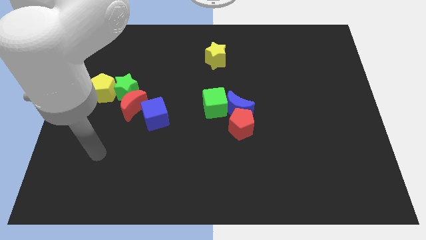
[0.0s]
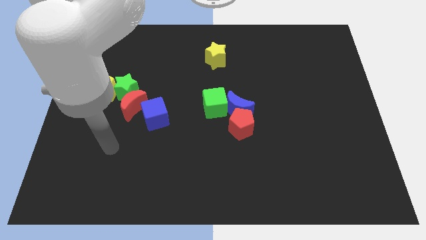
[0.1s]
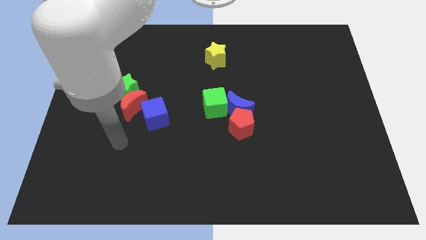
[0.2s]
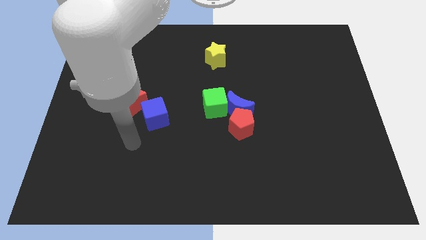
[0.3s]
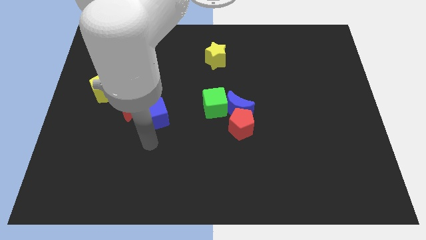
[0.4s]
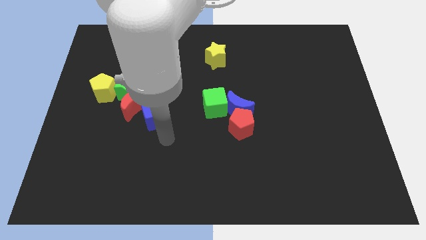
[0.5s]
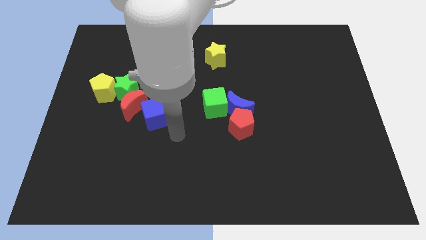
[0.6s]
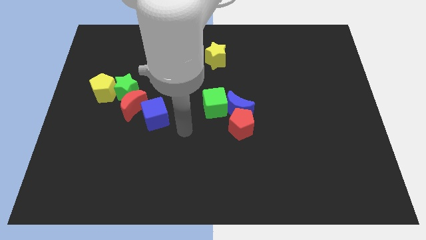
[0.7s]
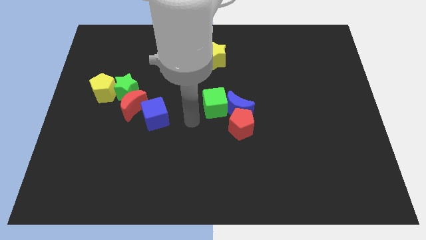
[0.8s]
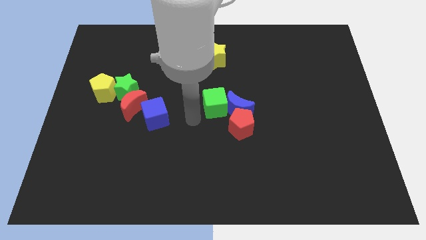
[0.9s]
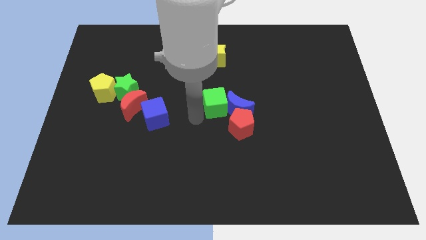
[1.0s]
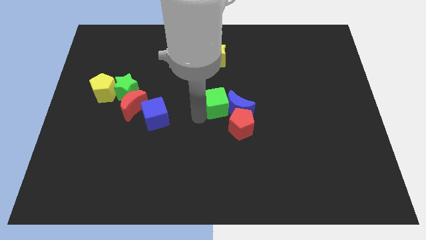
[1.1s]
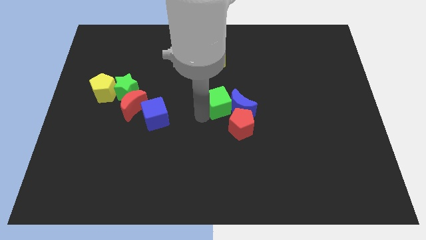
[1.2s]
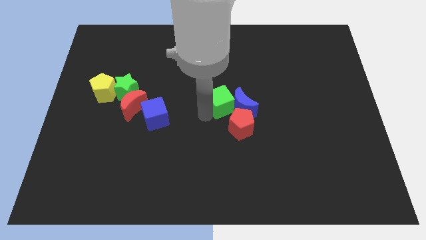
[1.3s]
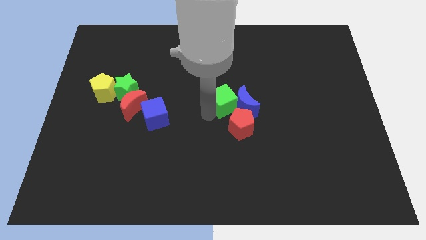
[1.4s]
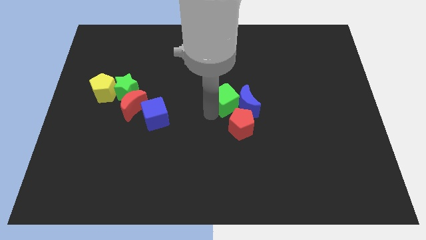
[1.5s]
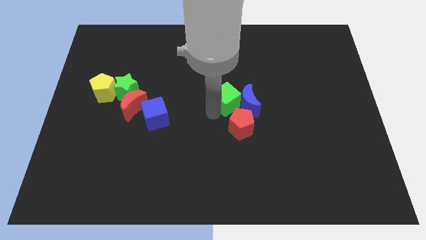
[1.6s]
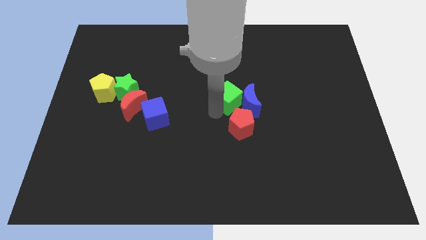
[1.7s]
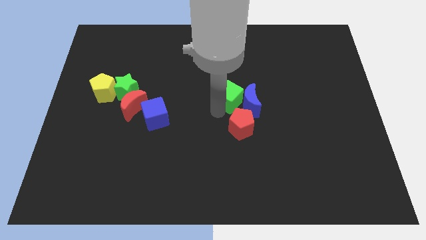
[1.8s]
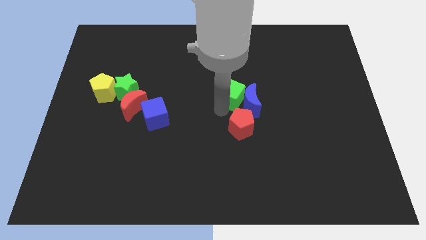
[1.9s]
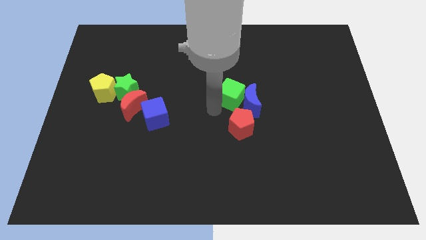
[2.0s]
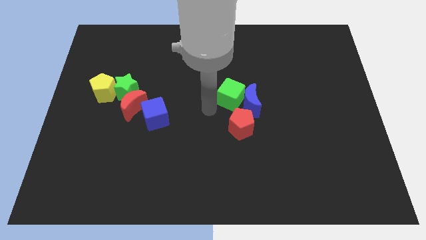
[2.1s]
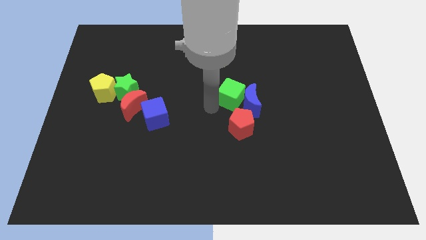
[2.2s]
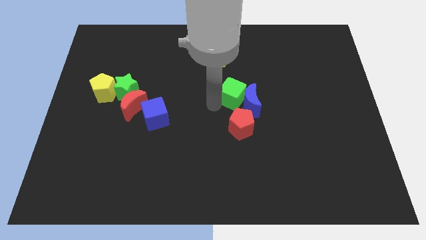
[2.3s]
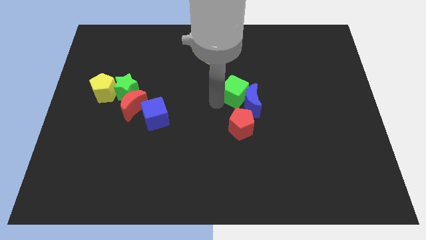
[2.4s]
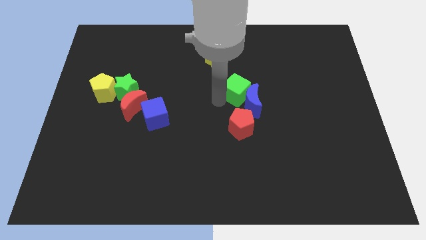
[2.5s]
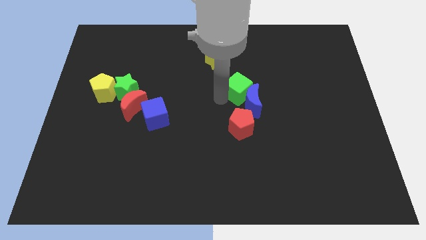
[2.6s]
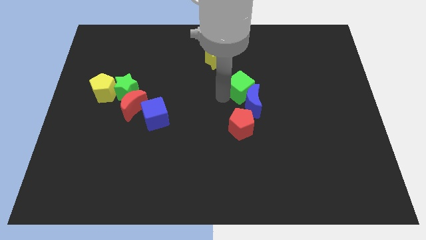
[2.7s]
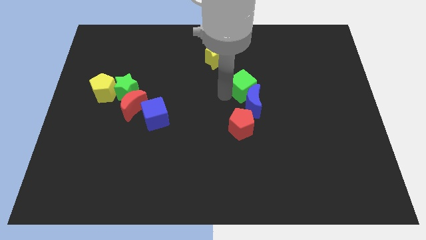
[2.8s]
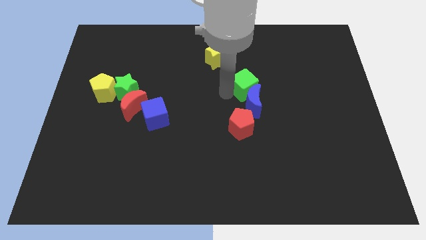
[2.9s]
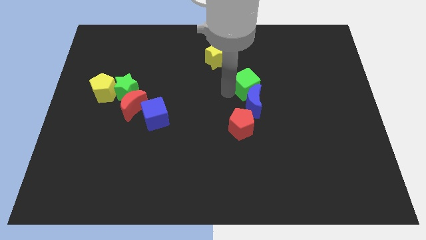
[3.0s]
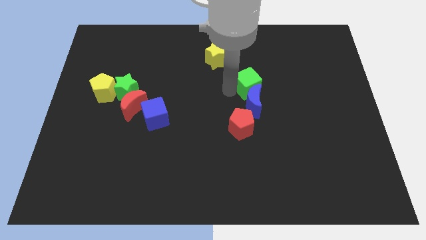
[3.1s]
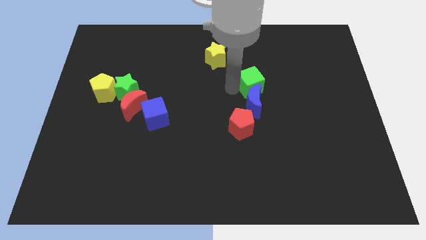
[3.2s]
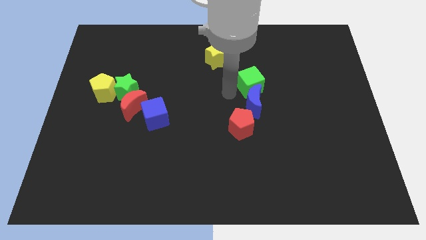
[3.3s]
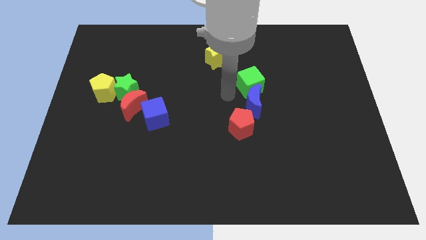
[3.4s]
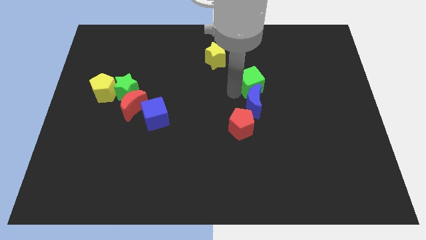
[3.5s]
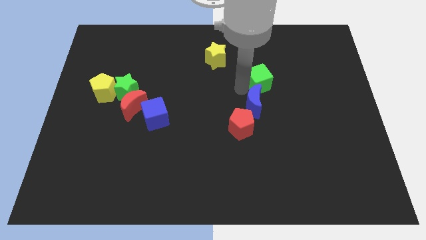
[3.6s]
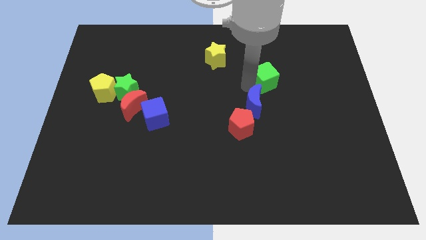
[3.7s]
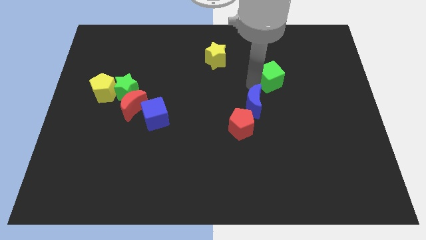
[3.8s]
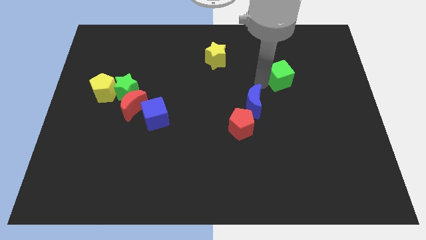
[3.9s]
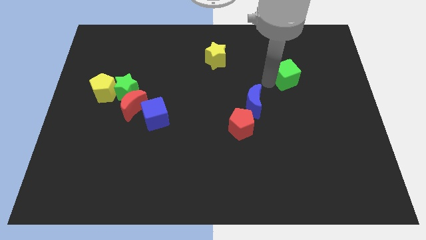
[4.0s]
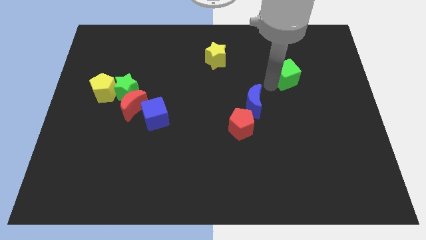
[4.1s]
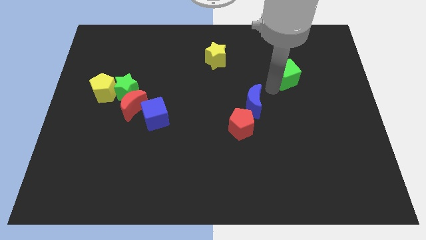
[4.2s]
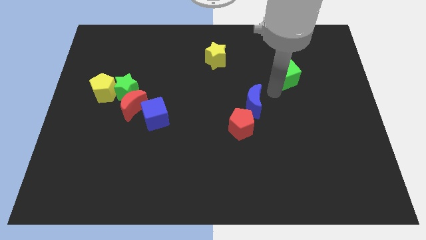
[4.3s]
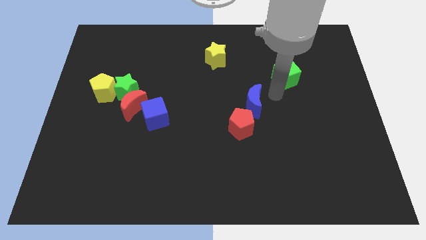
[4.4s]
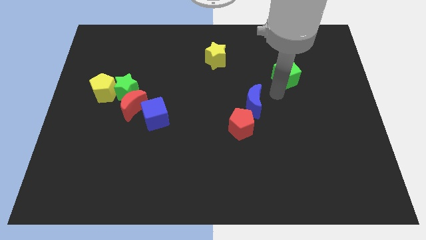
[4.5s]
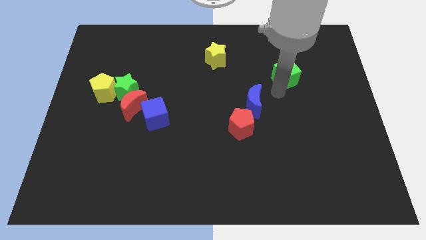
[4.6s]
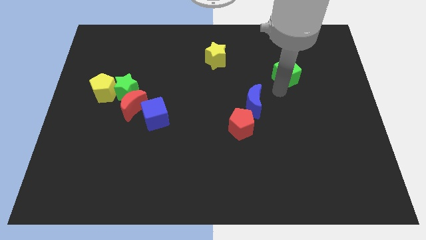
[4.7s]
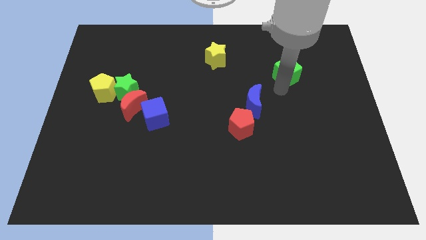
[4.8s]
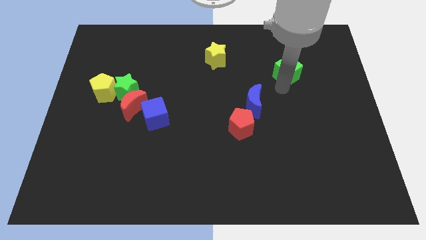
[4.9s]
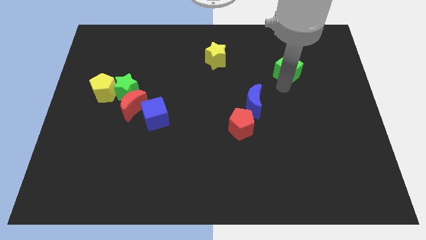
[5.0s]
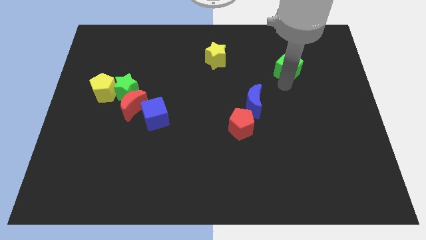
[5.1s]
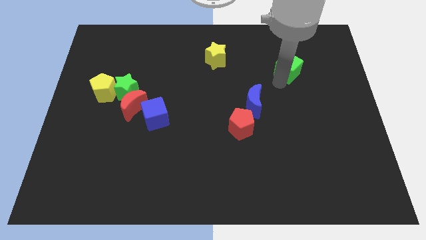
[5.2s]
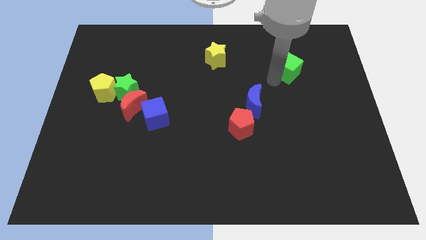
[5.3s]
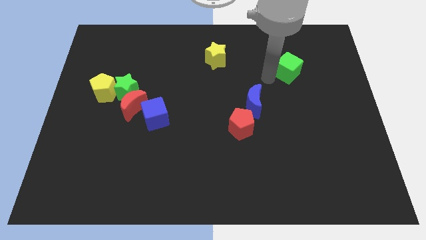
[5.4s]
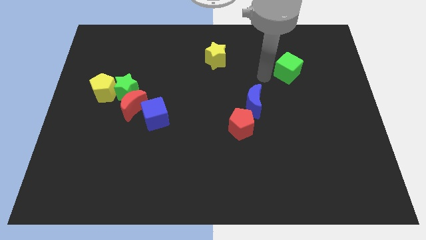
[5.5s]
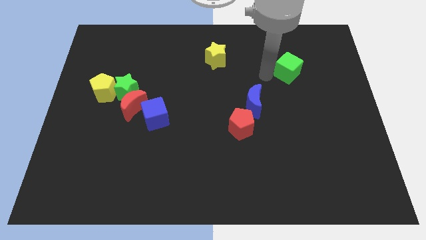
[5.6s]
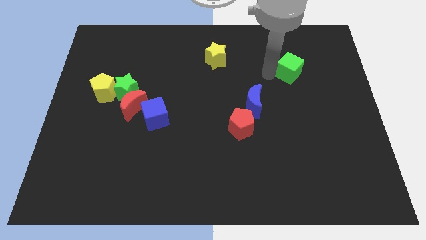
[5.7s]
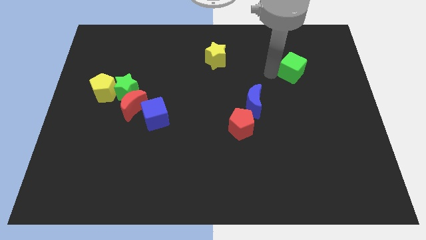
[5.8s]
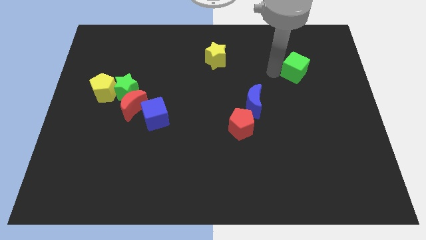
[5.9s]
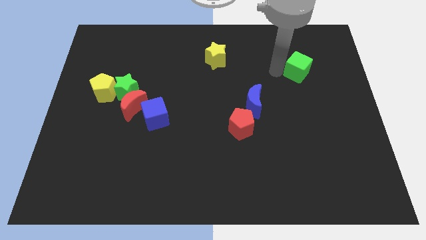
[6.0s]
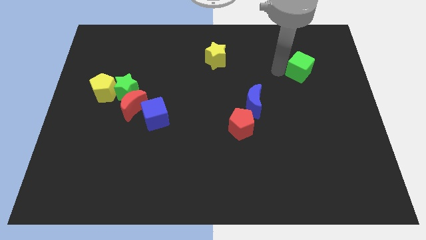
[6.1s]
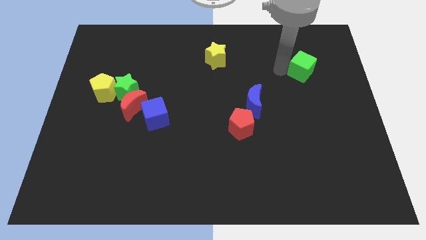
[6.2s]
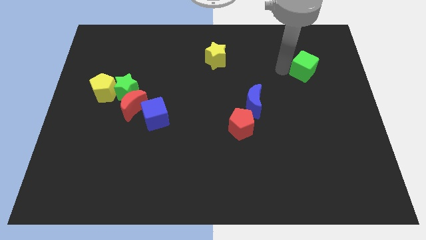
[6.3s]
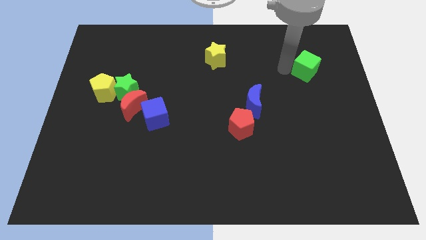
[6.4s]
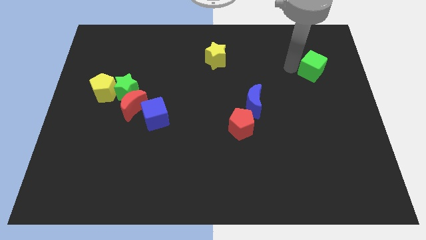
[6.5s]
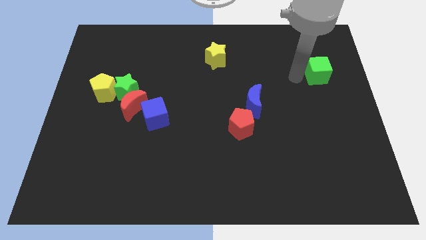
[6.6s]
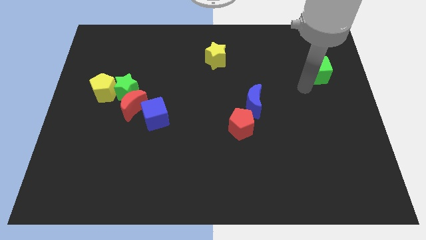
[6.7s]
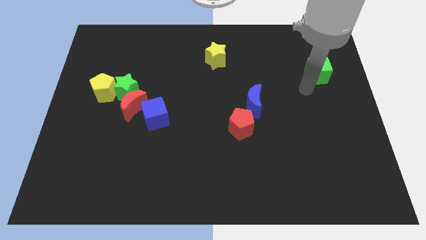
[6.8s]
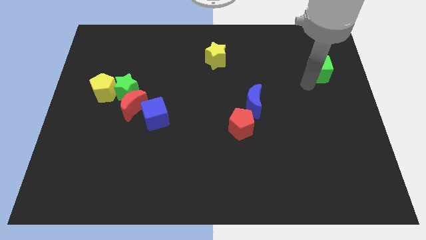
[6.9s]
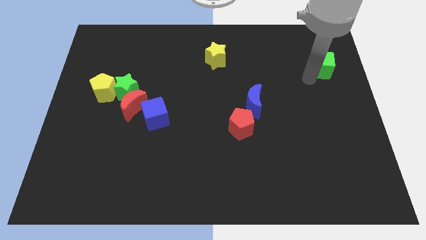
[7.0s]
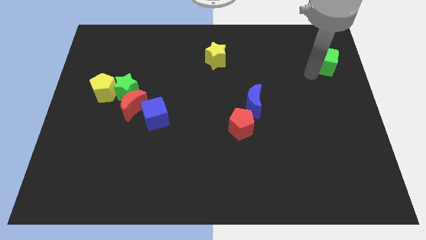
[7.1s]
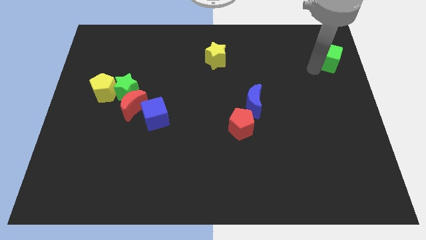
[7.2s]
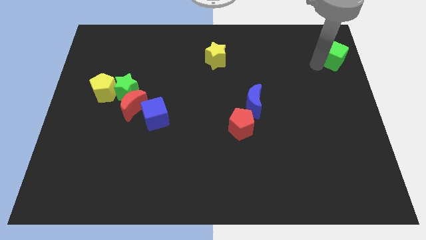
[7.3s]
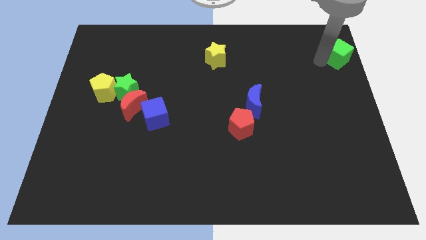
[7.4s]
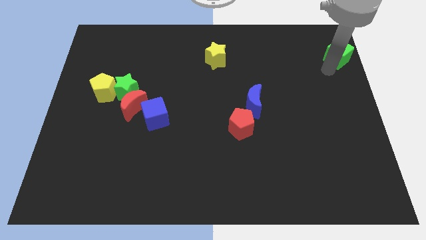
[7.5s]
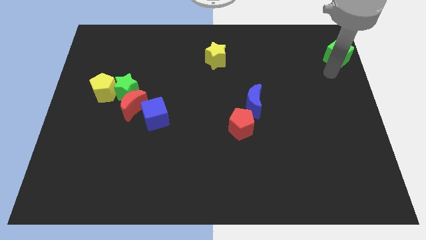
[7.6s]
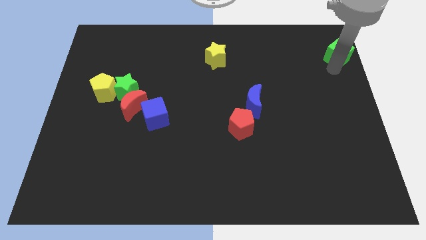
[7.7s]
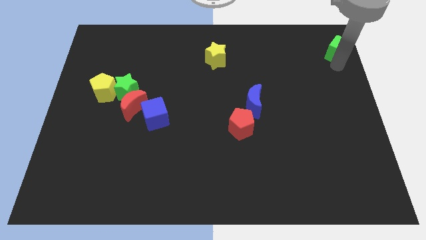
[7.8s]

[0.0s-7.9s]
put the green cube to the top right corner
